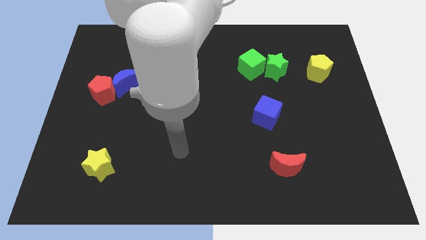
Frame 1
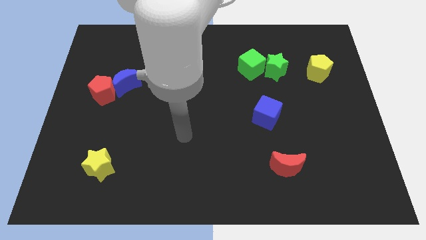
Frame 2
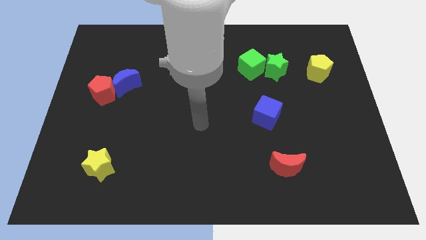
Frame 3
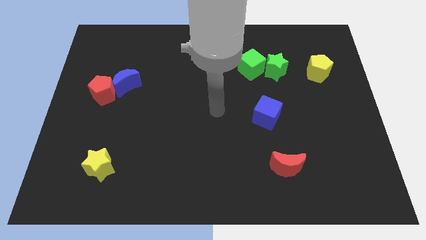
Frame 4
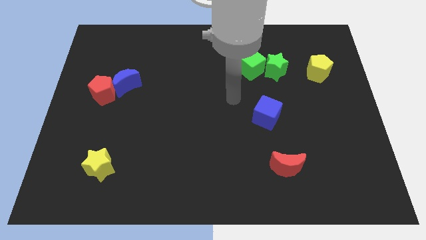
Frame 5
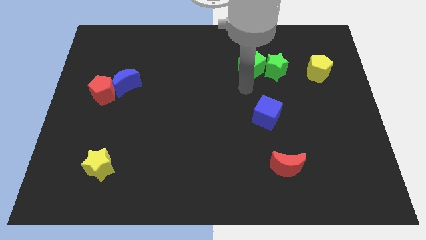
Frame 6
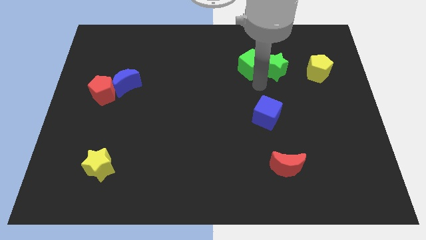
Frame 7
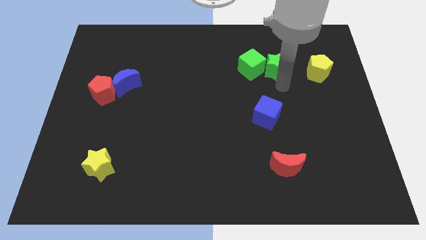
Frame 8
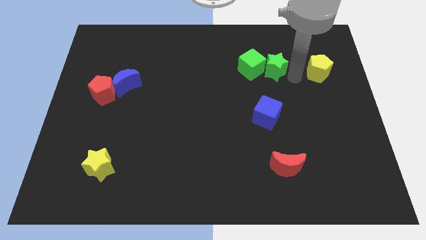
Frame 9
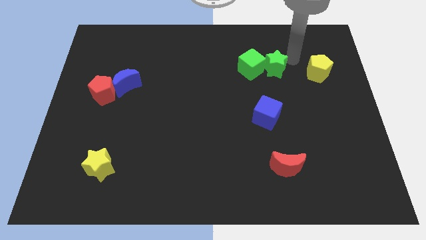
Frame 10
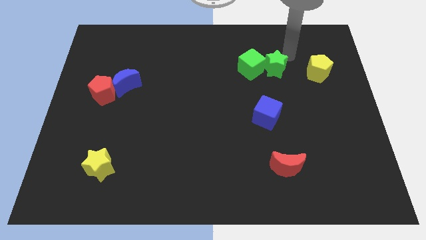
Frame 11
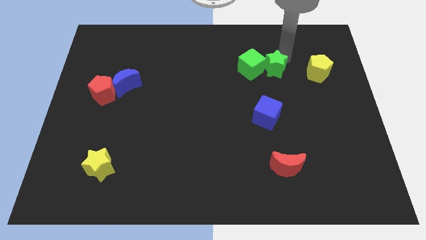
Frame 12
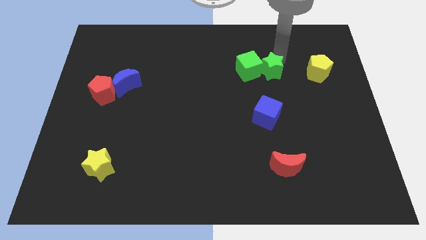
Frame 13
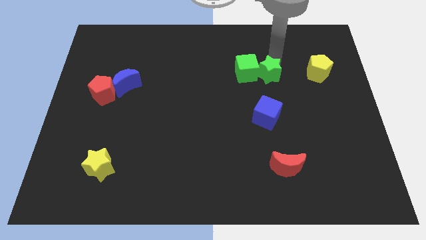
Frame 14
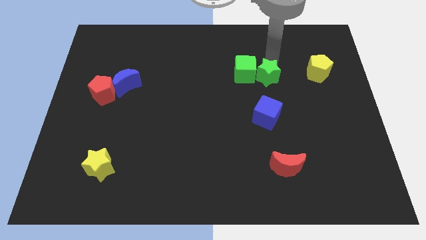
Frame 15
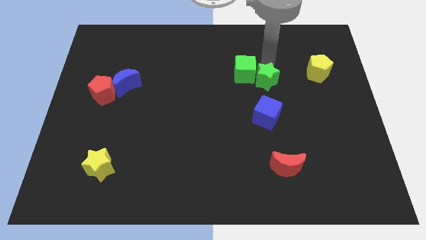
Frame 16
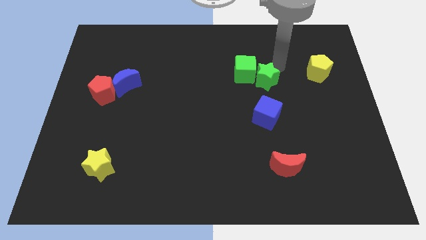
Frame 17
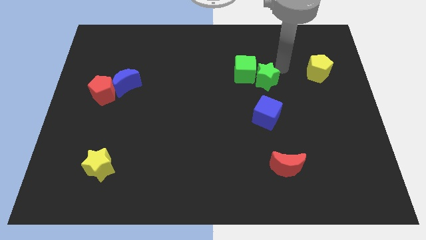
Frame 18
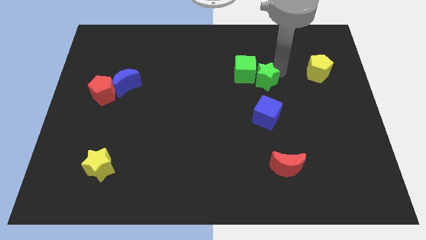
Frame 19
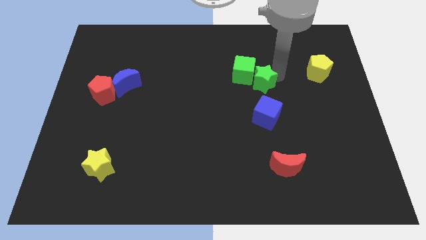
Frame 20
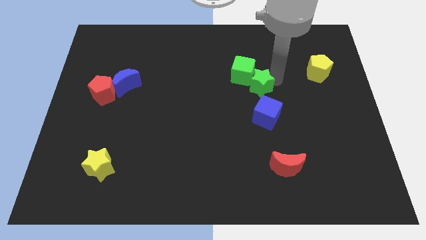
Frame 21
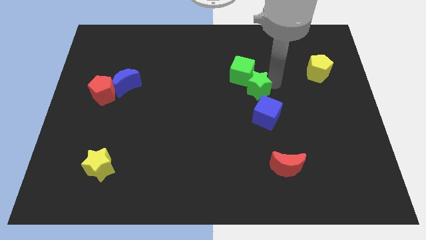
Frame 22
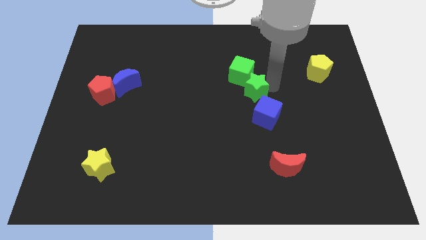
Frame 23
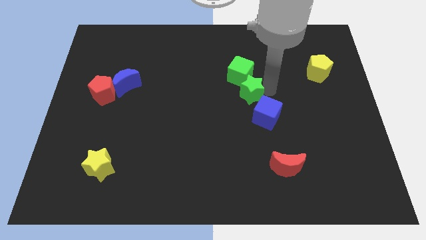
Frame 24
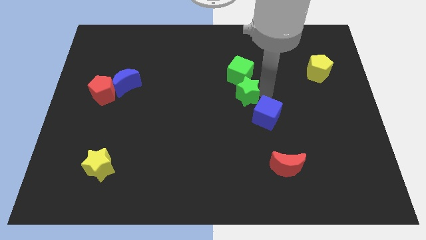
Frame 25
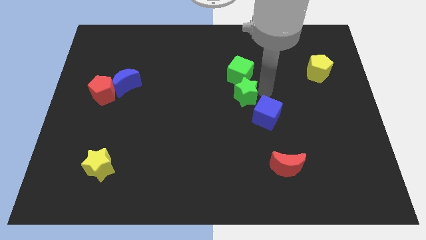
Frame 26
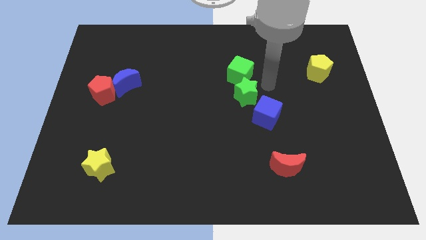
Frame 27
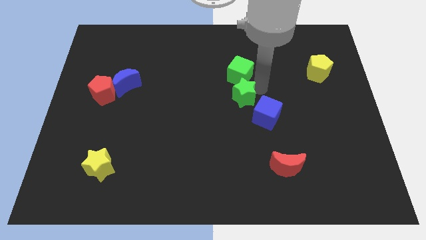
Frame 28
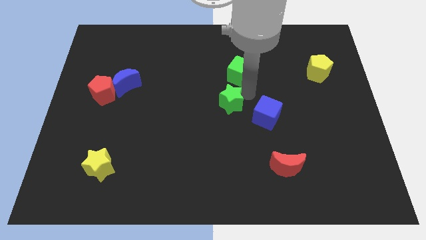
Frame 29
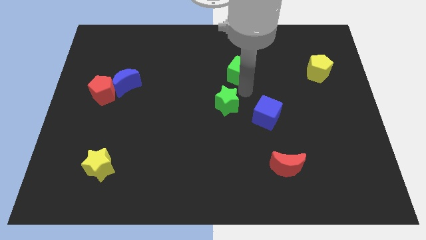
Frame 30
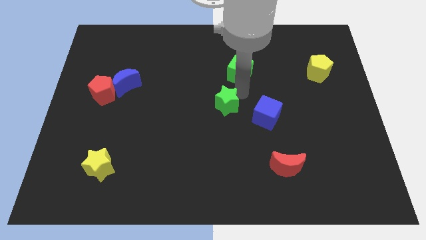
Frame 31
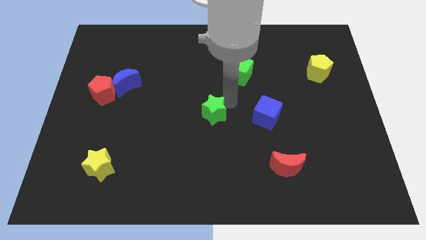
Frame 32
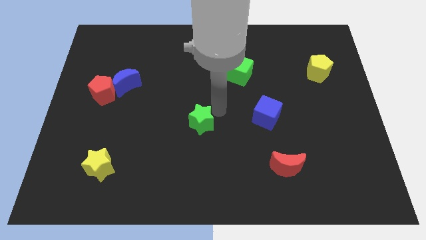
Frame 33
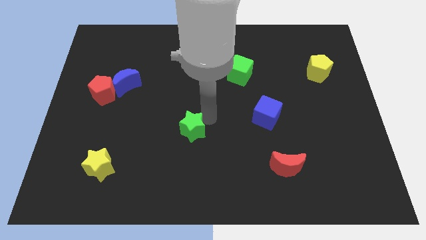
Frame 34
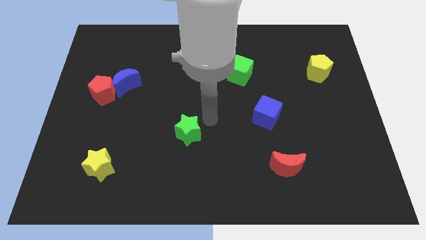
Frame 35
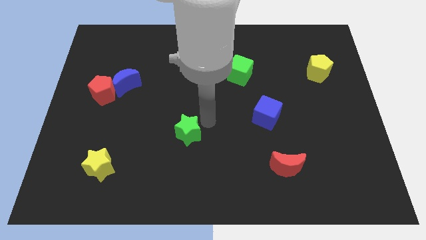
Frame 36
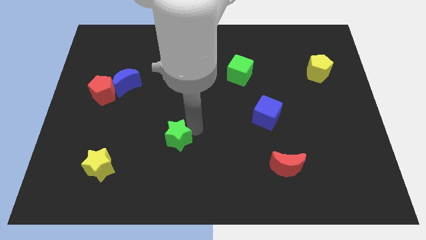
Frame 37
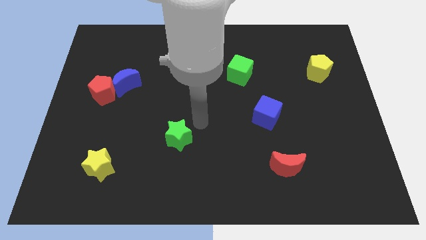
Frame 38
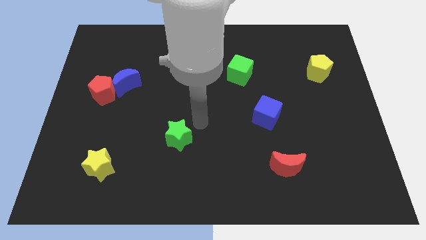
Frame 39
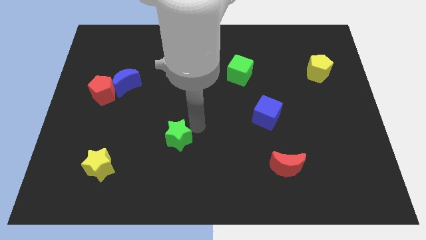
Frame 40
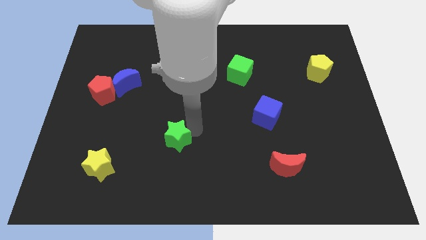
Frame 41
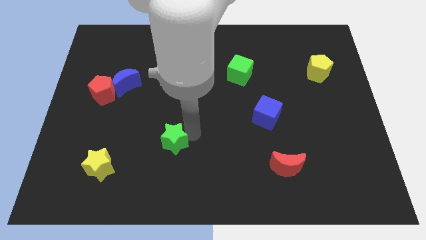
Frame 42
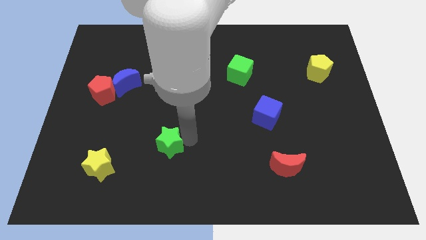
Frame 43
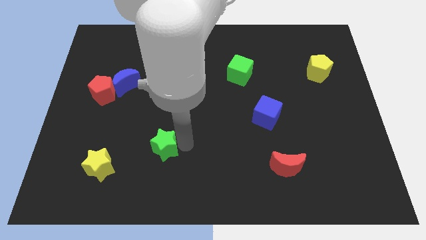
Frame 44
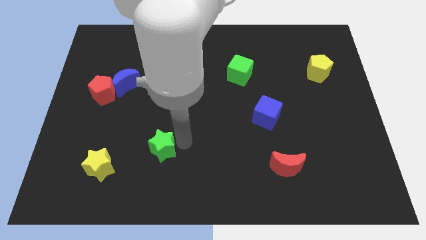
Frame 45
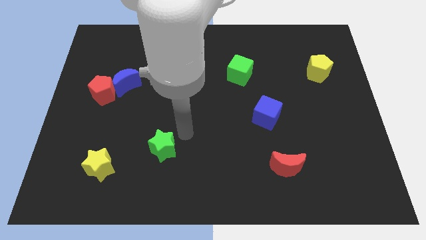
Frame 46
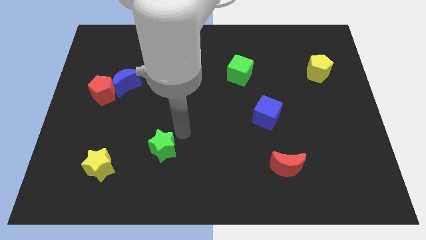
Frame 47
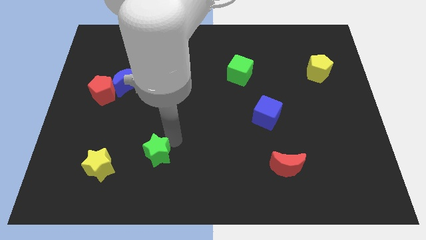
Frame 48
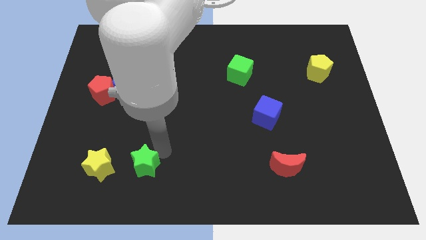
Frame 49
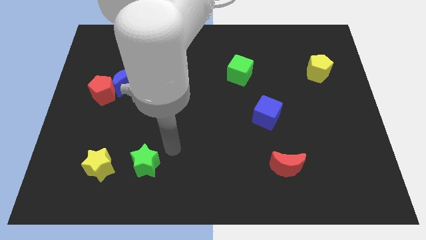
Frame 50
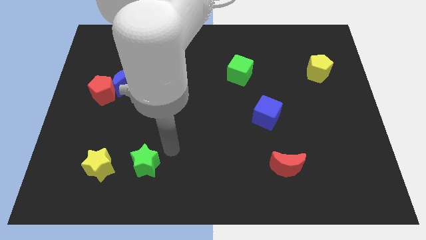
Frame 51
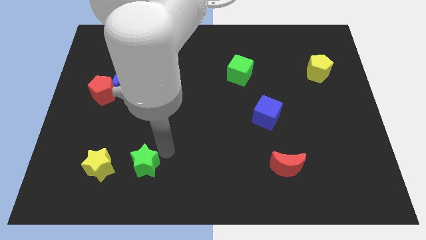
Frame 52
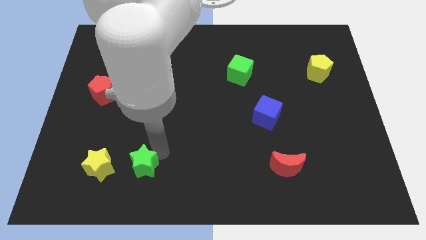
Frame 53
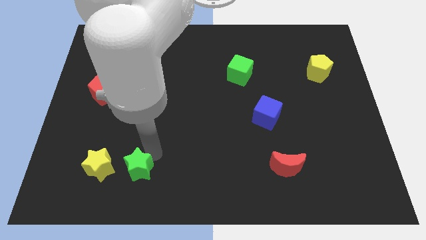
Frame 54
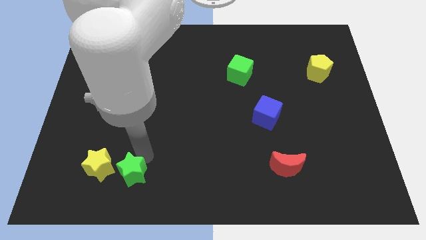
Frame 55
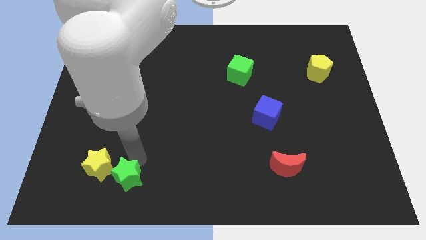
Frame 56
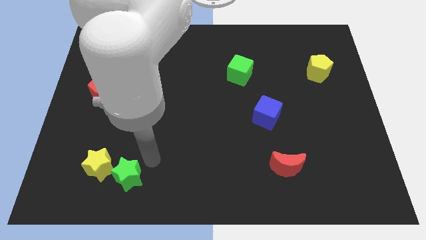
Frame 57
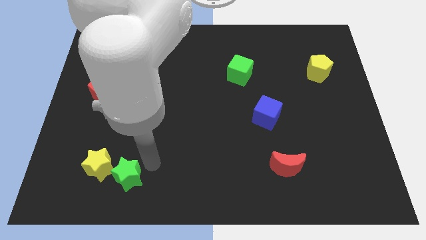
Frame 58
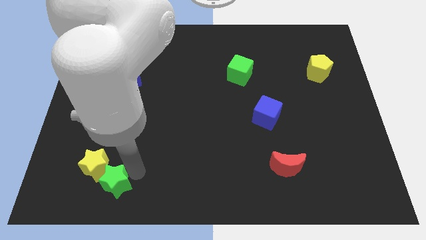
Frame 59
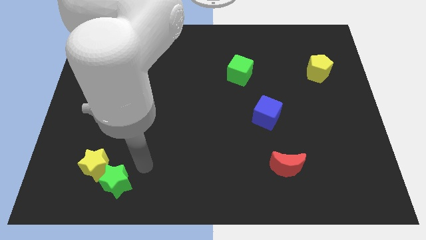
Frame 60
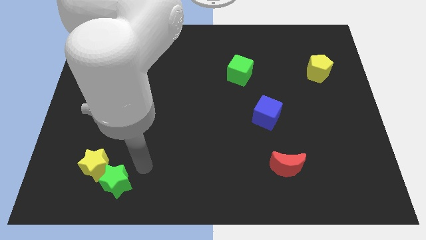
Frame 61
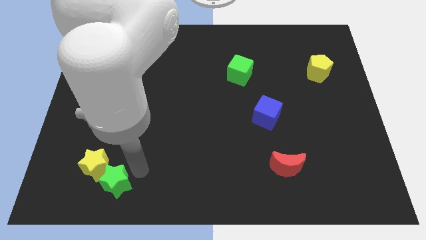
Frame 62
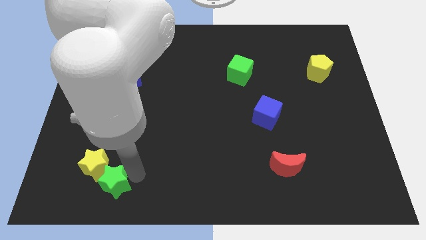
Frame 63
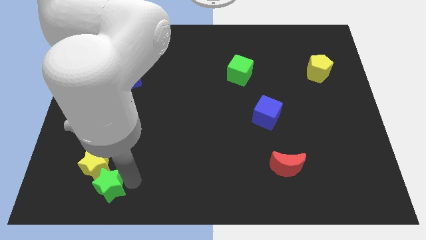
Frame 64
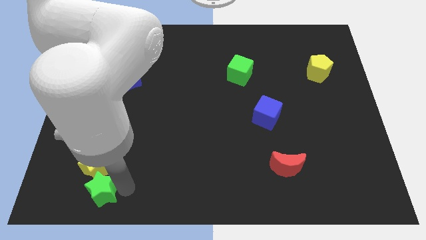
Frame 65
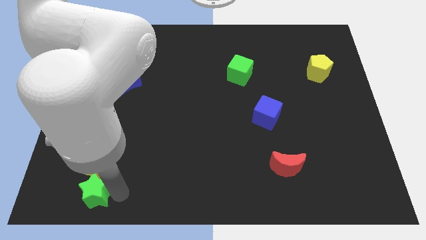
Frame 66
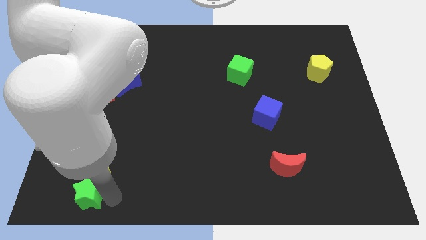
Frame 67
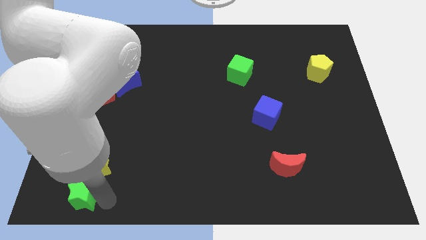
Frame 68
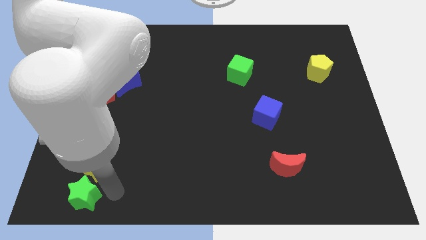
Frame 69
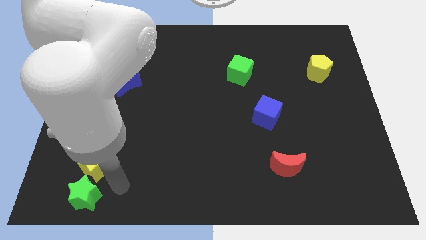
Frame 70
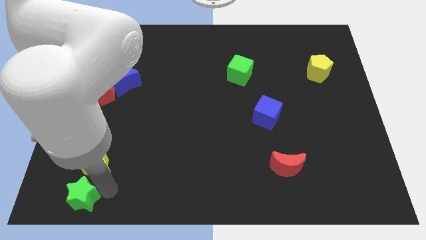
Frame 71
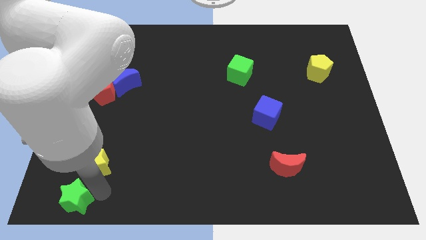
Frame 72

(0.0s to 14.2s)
slide the green star to the bottom left of the board
